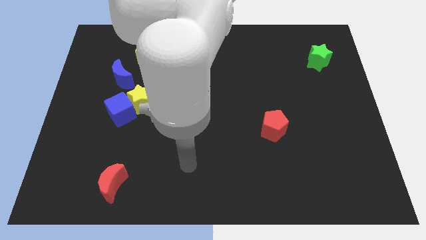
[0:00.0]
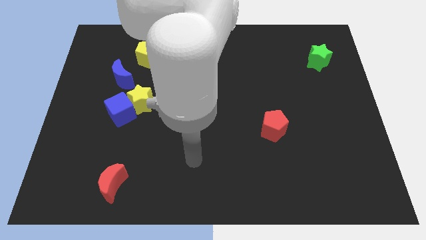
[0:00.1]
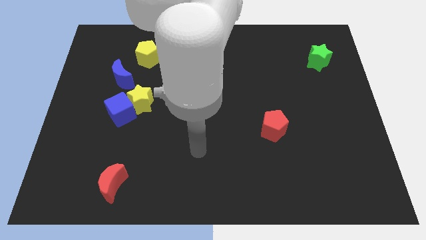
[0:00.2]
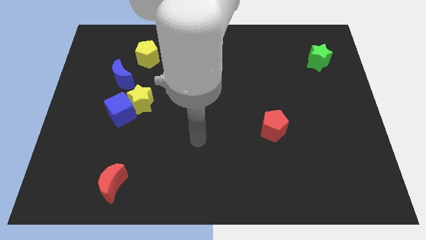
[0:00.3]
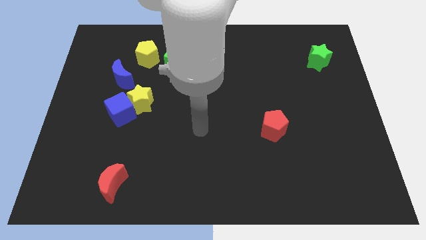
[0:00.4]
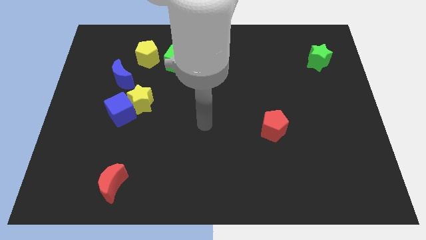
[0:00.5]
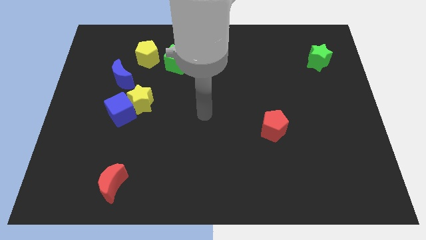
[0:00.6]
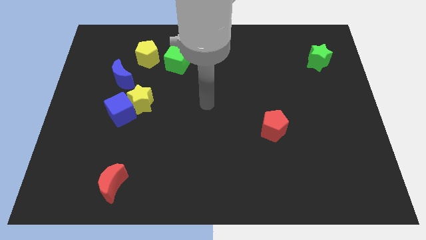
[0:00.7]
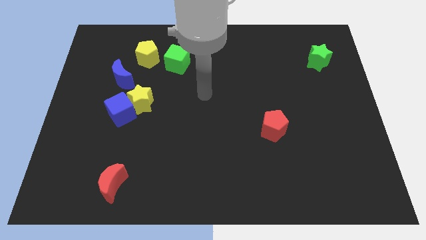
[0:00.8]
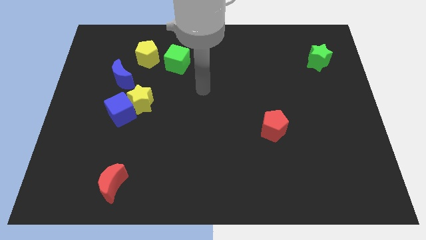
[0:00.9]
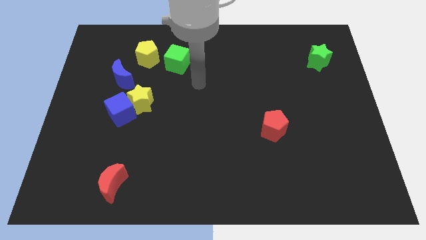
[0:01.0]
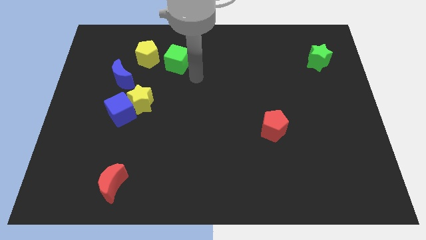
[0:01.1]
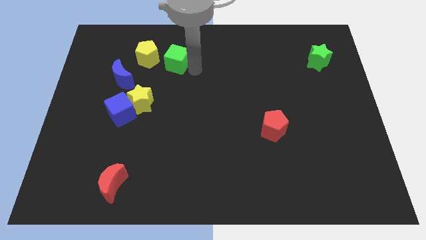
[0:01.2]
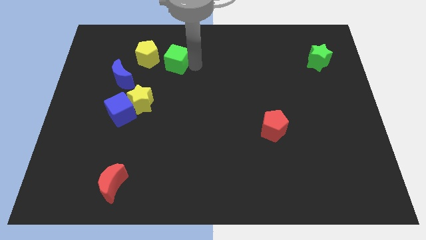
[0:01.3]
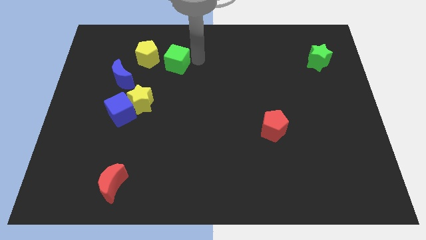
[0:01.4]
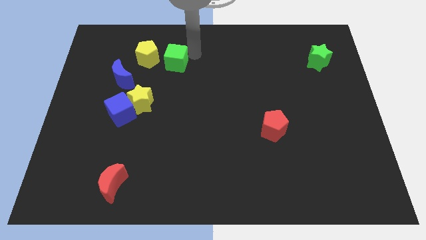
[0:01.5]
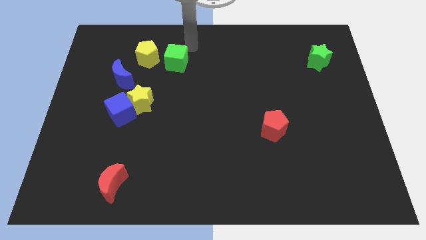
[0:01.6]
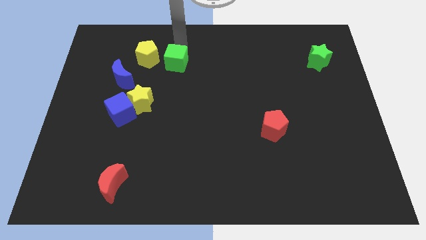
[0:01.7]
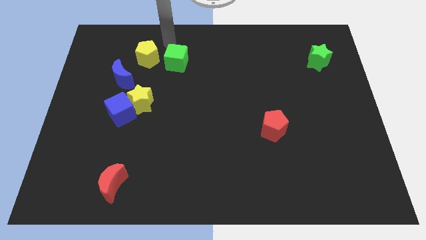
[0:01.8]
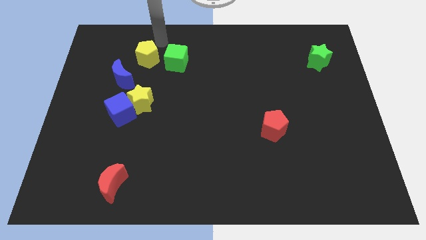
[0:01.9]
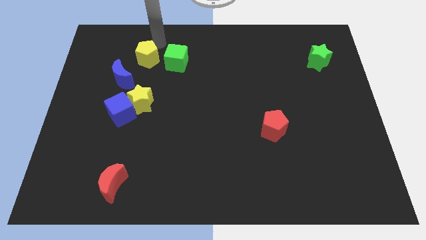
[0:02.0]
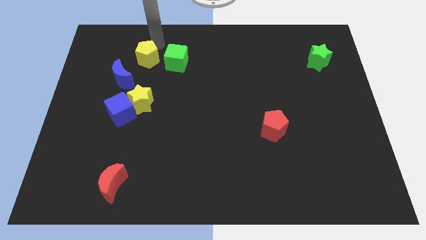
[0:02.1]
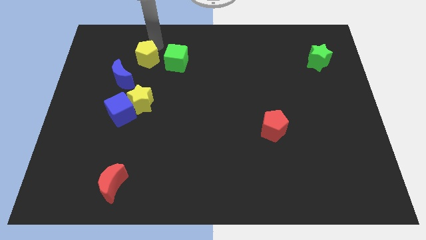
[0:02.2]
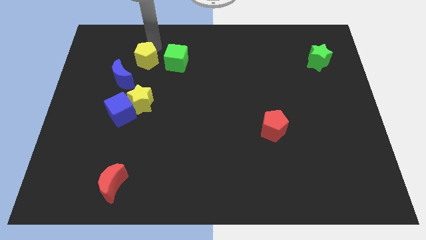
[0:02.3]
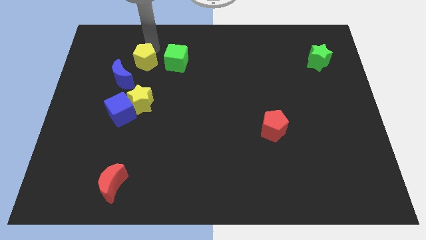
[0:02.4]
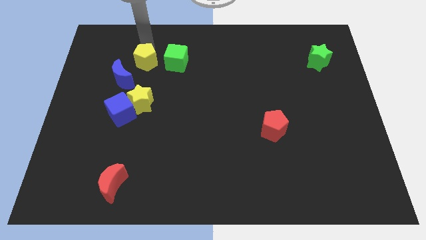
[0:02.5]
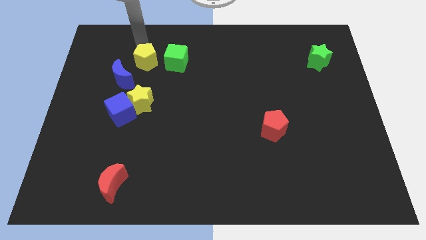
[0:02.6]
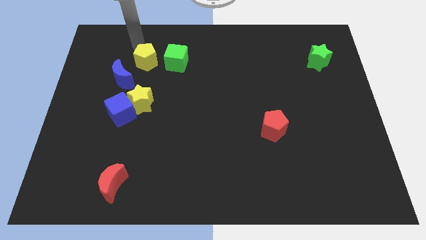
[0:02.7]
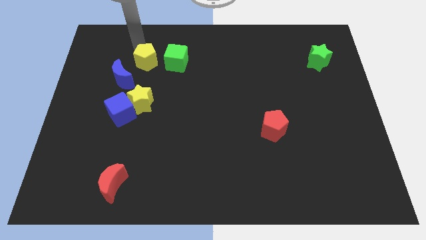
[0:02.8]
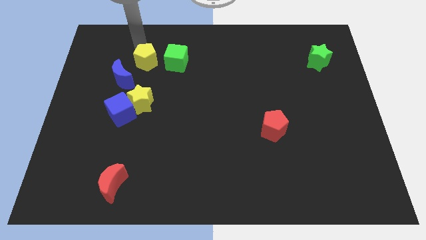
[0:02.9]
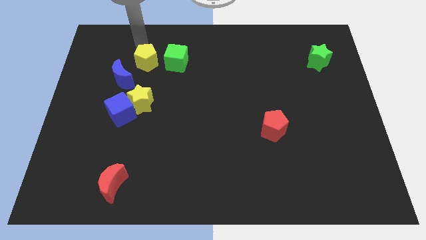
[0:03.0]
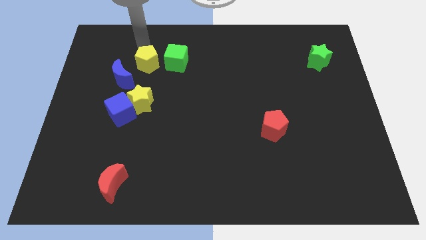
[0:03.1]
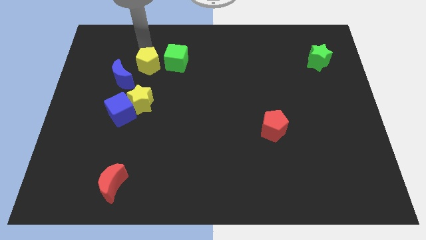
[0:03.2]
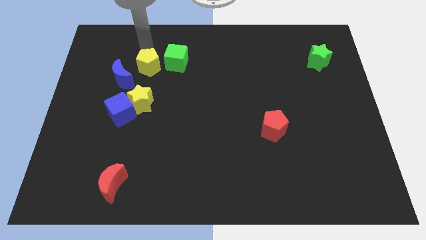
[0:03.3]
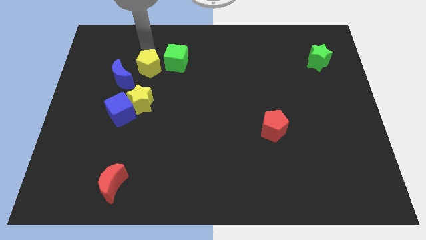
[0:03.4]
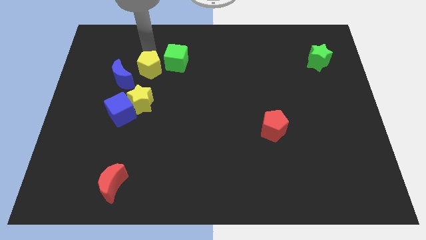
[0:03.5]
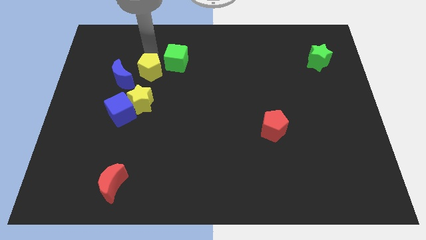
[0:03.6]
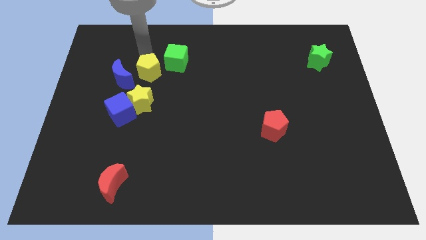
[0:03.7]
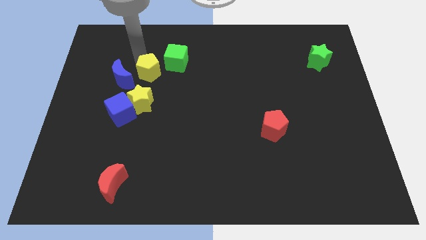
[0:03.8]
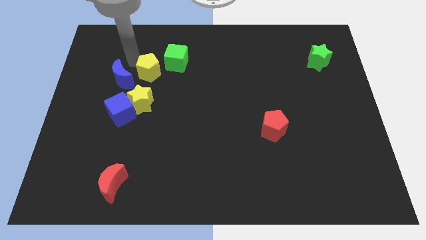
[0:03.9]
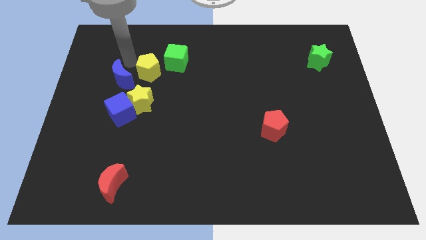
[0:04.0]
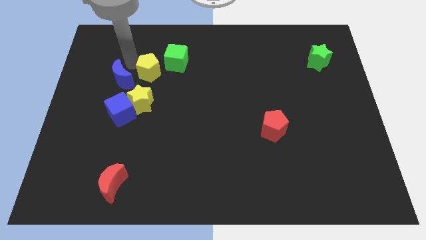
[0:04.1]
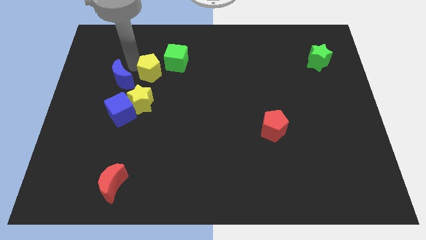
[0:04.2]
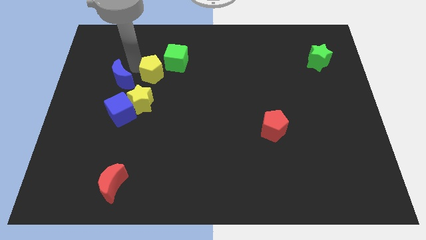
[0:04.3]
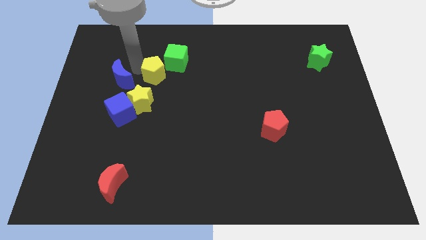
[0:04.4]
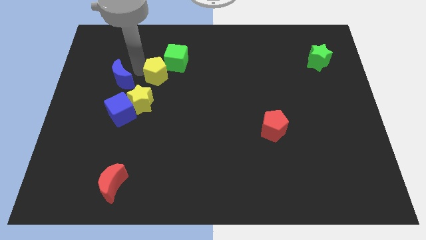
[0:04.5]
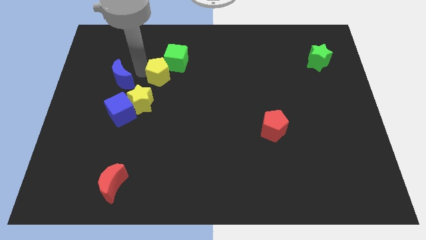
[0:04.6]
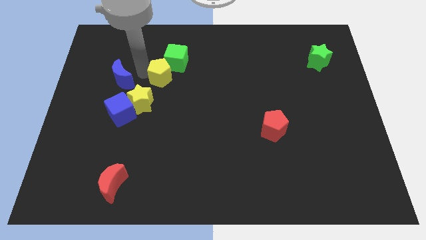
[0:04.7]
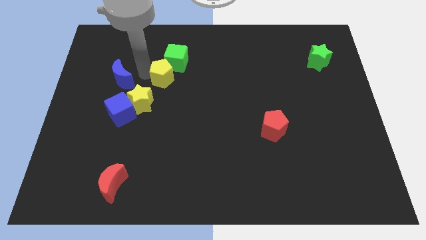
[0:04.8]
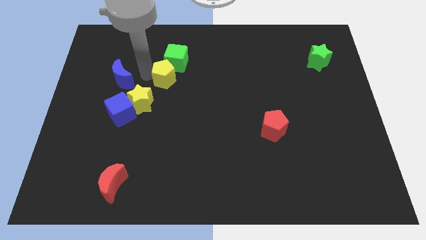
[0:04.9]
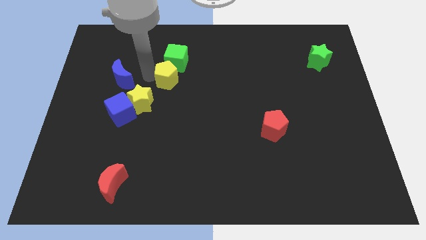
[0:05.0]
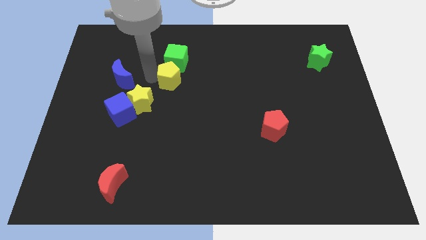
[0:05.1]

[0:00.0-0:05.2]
slide the yellow pentagon to the middle

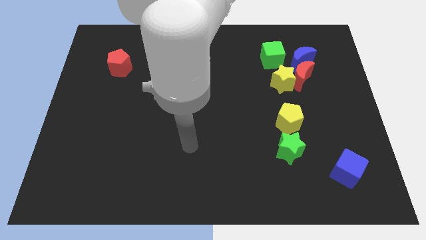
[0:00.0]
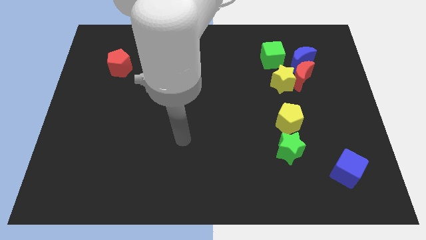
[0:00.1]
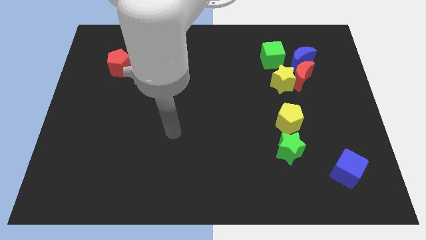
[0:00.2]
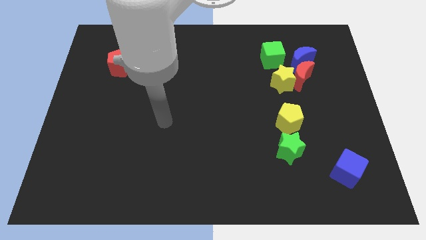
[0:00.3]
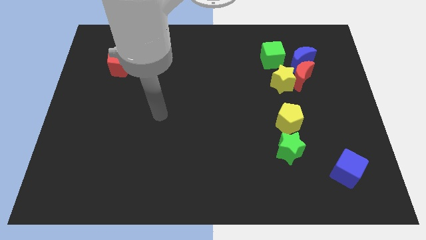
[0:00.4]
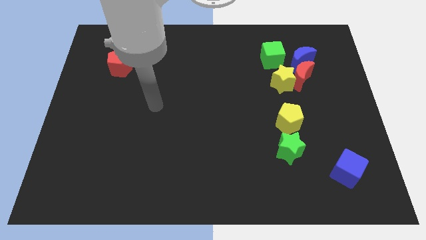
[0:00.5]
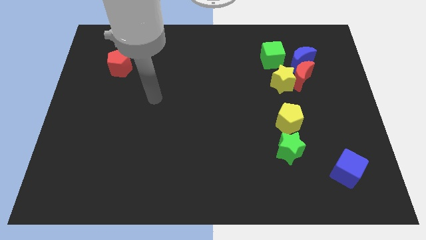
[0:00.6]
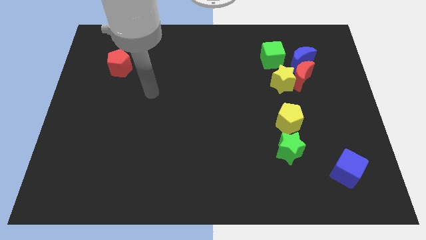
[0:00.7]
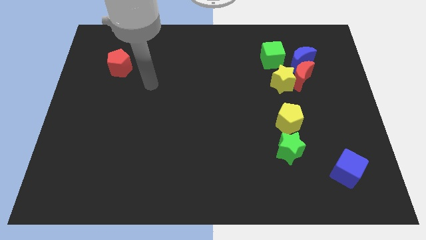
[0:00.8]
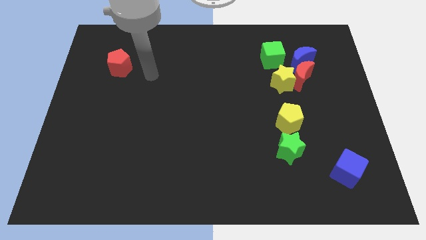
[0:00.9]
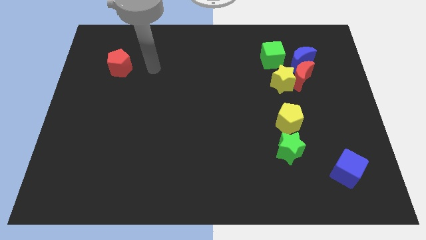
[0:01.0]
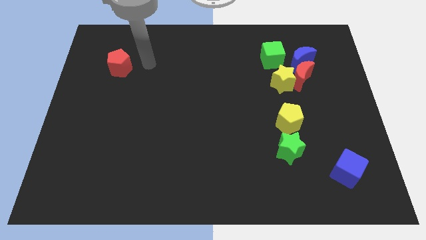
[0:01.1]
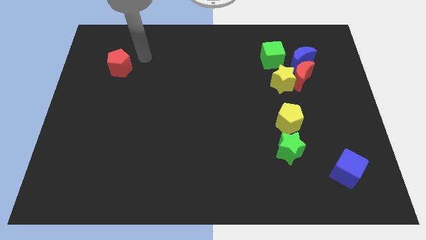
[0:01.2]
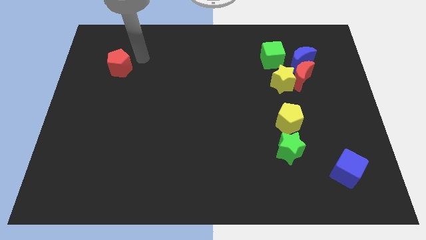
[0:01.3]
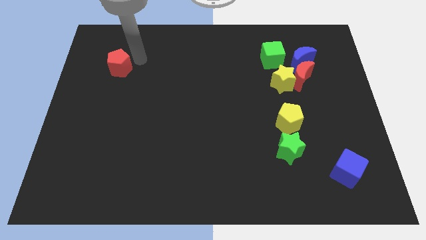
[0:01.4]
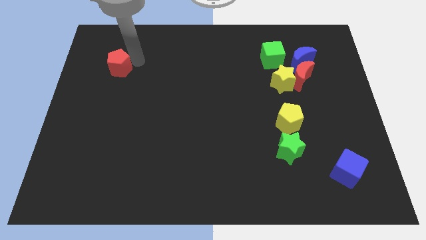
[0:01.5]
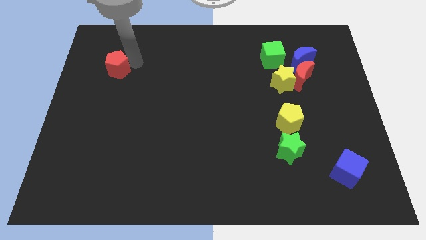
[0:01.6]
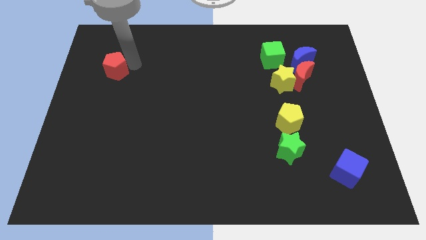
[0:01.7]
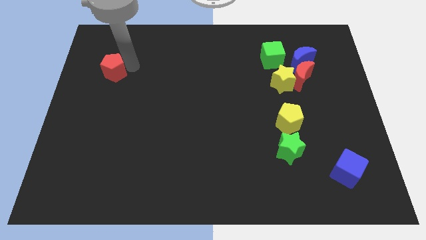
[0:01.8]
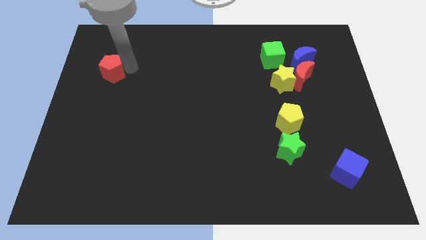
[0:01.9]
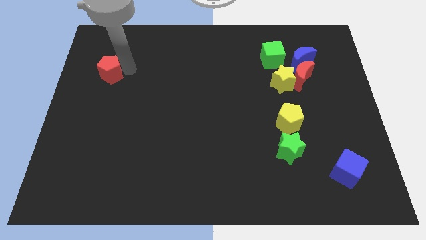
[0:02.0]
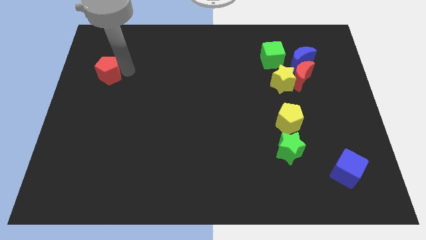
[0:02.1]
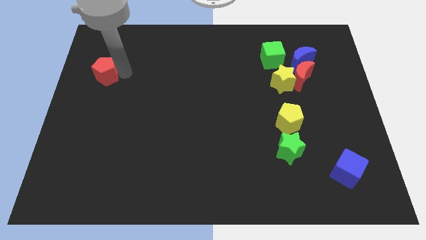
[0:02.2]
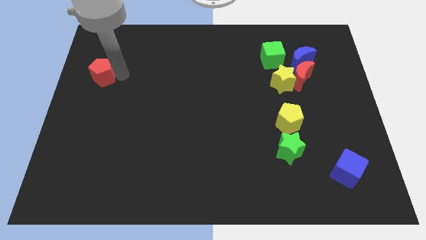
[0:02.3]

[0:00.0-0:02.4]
put the red pentagon to the left side of the board
